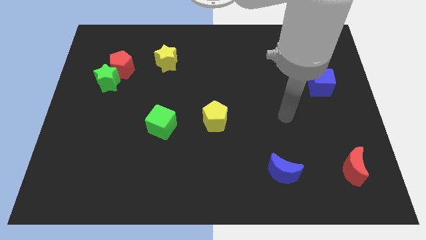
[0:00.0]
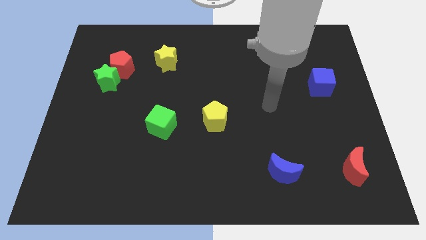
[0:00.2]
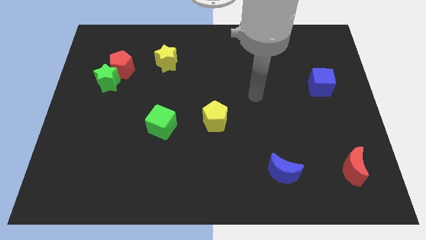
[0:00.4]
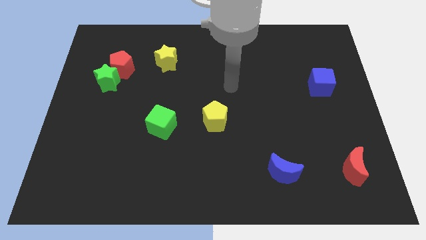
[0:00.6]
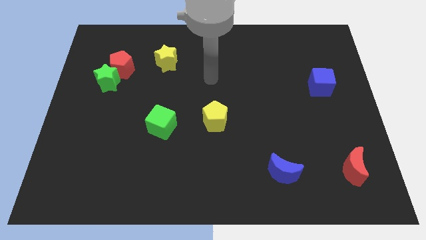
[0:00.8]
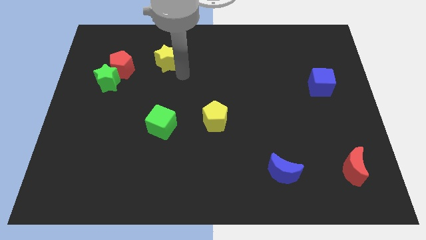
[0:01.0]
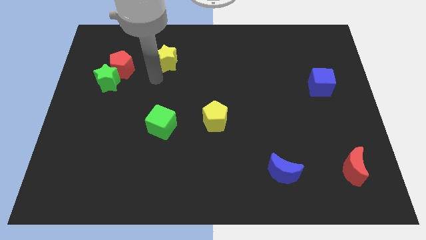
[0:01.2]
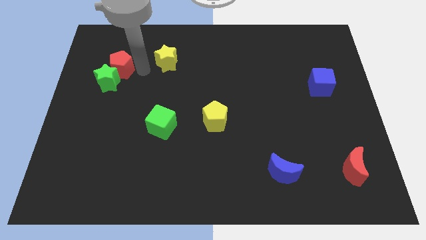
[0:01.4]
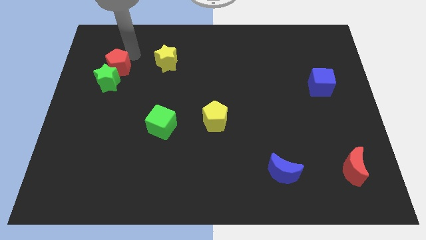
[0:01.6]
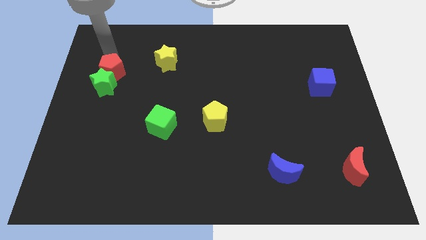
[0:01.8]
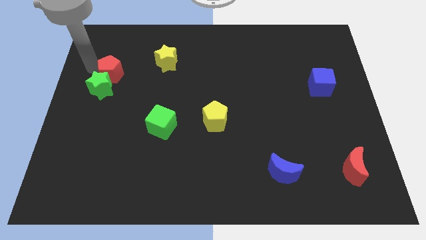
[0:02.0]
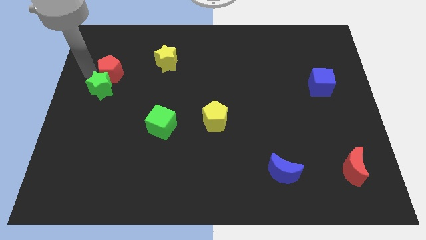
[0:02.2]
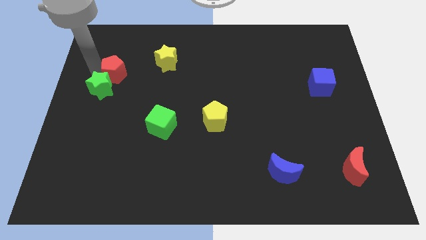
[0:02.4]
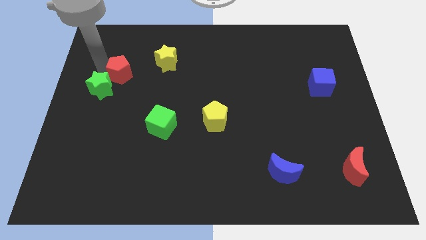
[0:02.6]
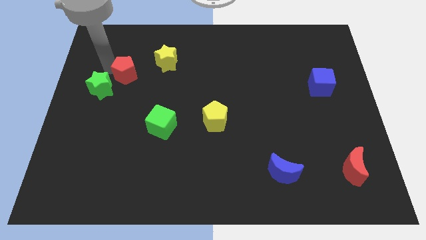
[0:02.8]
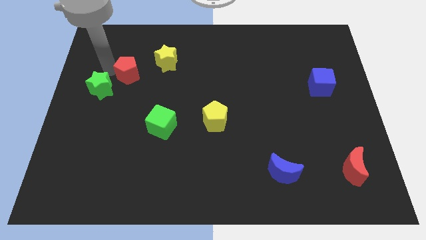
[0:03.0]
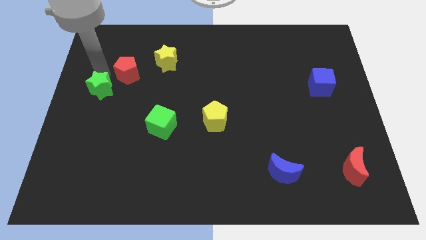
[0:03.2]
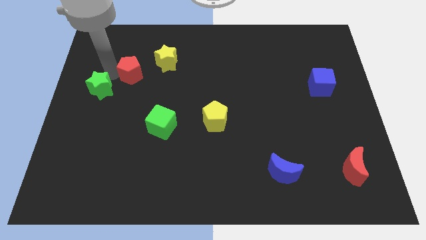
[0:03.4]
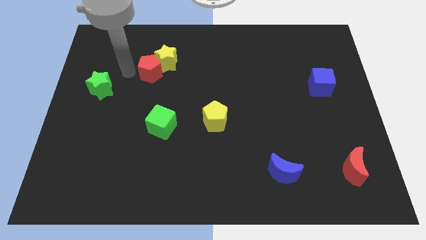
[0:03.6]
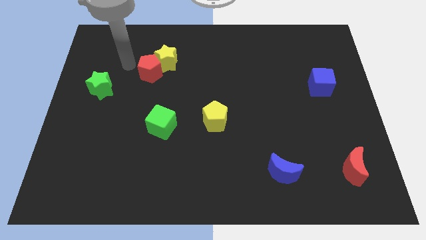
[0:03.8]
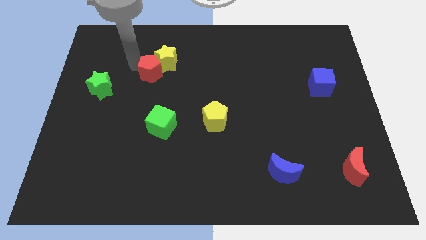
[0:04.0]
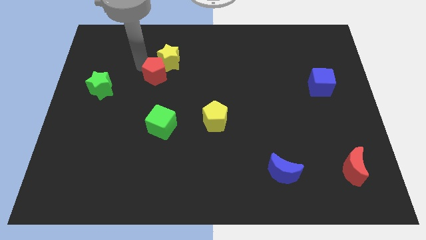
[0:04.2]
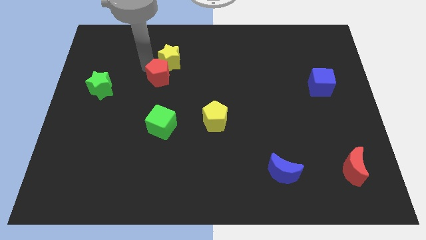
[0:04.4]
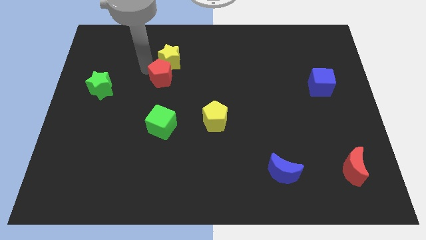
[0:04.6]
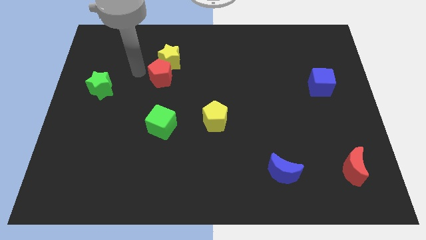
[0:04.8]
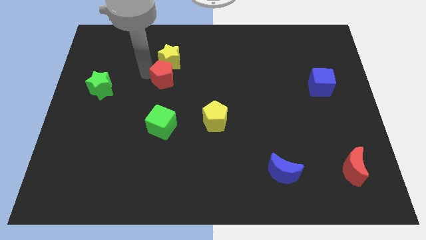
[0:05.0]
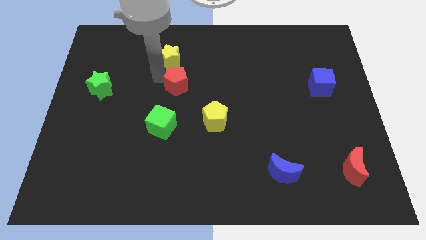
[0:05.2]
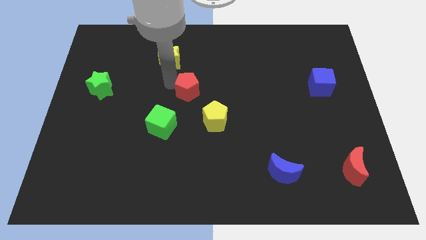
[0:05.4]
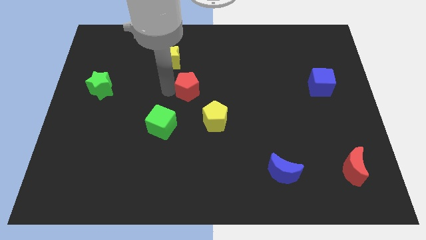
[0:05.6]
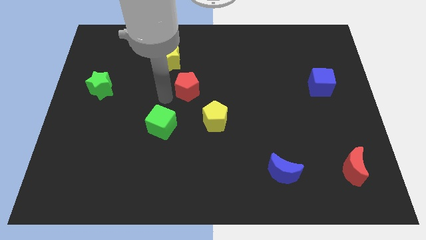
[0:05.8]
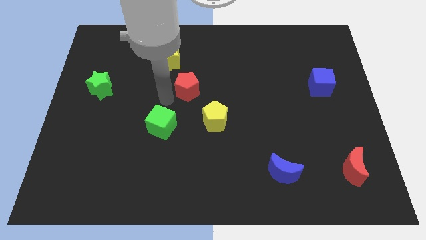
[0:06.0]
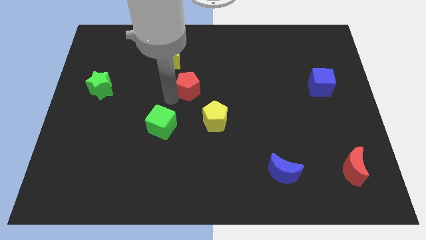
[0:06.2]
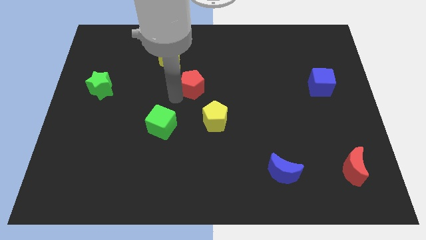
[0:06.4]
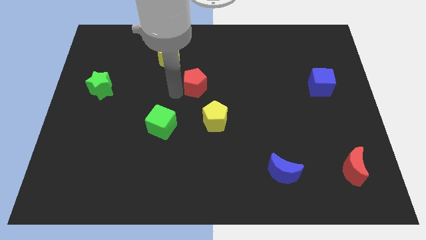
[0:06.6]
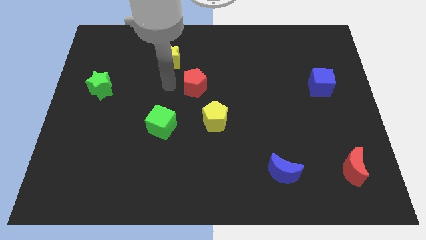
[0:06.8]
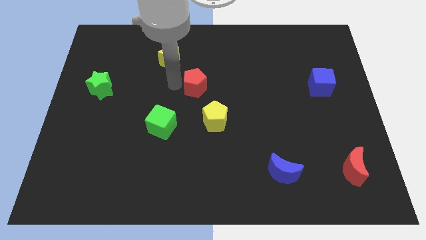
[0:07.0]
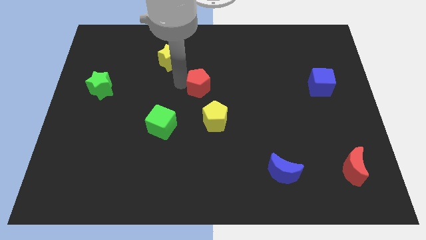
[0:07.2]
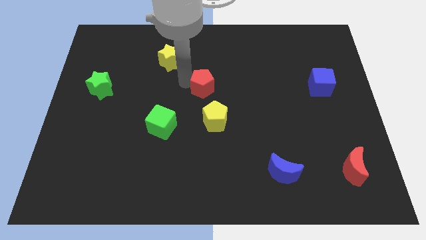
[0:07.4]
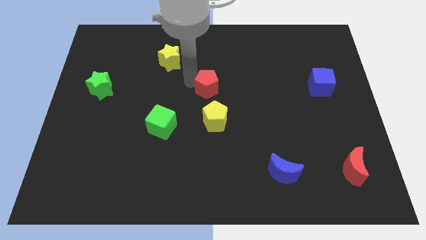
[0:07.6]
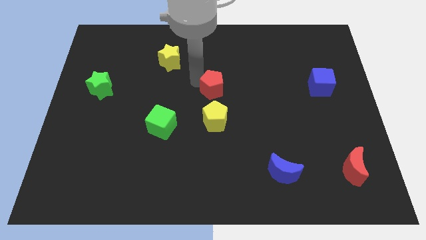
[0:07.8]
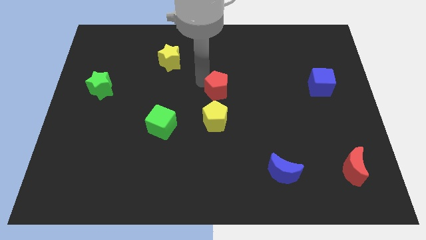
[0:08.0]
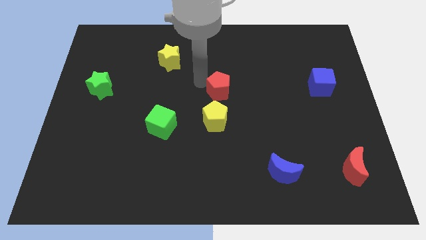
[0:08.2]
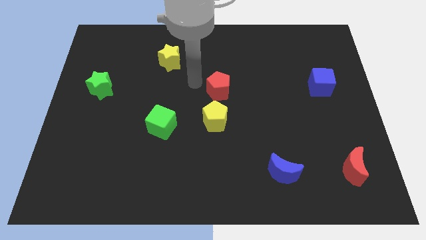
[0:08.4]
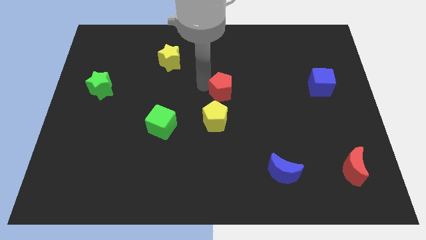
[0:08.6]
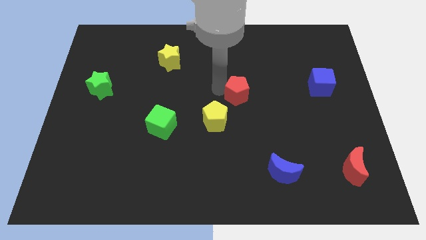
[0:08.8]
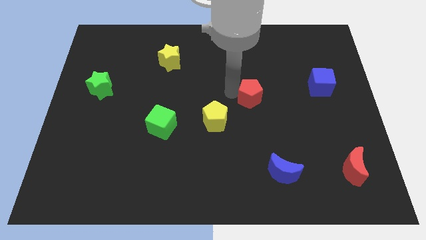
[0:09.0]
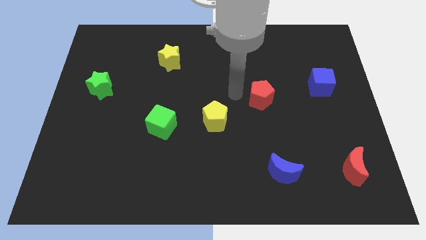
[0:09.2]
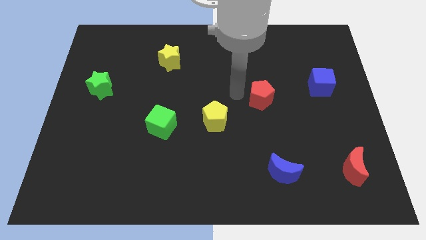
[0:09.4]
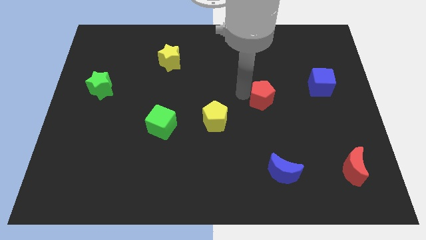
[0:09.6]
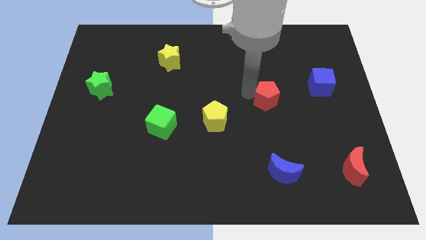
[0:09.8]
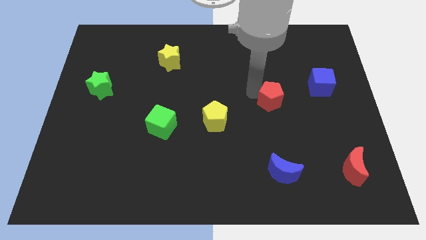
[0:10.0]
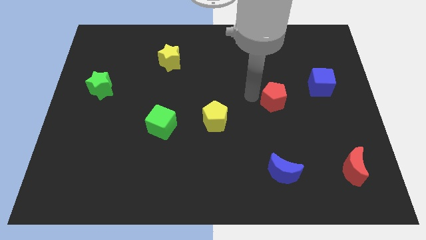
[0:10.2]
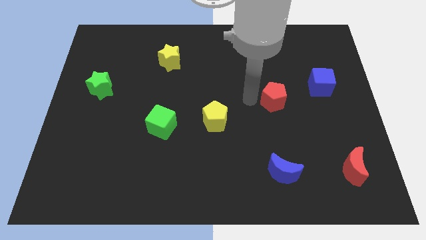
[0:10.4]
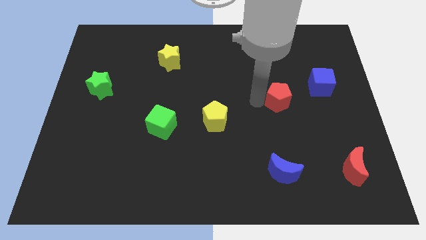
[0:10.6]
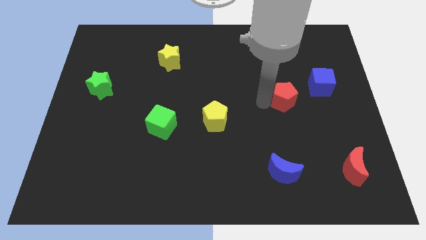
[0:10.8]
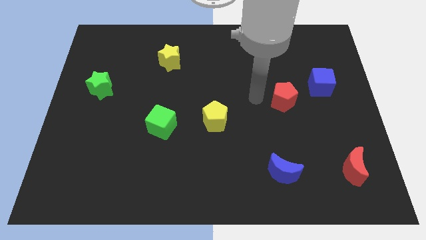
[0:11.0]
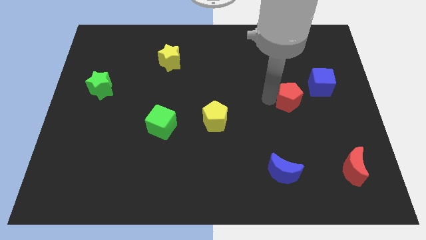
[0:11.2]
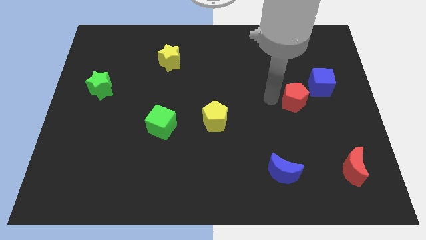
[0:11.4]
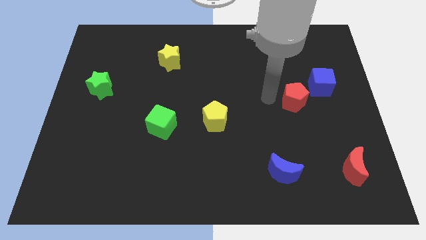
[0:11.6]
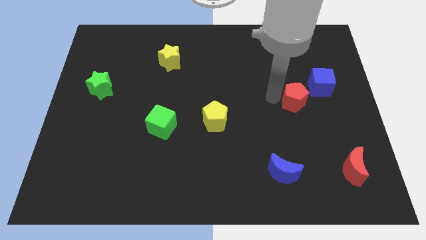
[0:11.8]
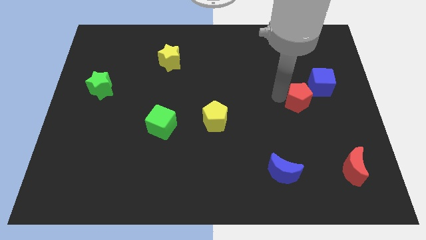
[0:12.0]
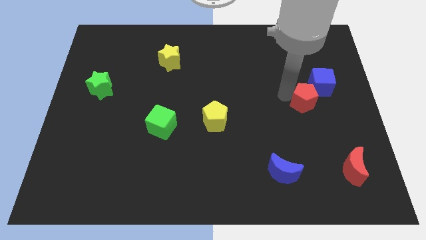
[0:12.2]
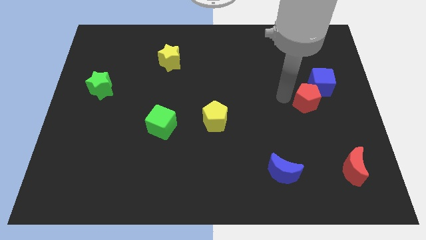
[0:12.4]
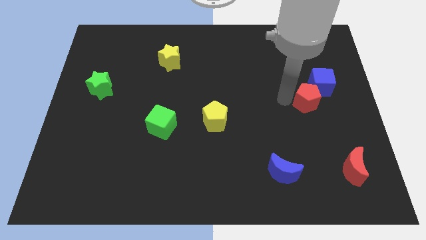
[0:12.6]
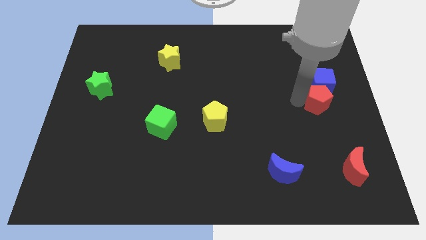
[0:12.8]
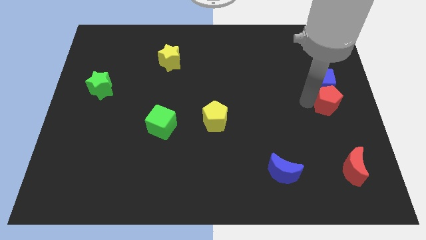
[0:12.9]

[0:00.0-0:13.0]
slide the red pentagon to the center right

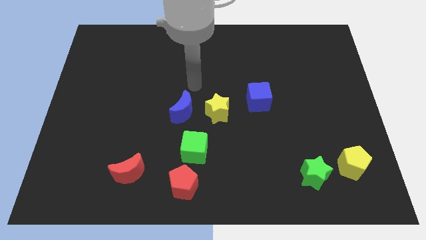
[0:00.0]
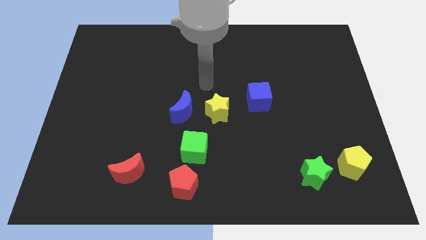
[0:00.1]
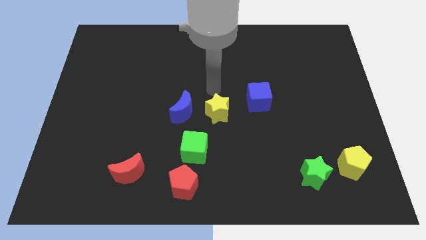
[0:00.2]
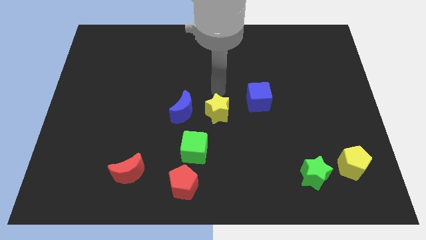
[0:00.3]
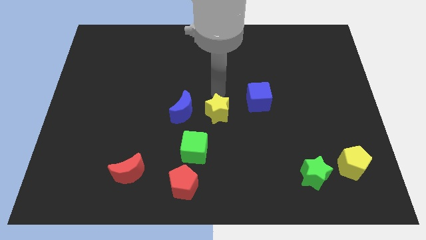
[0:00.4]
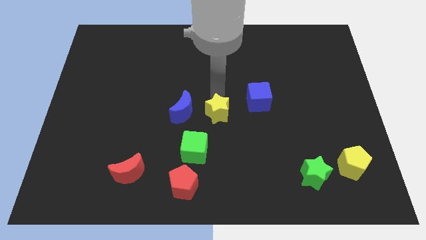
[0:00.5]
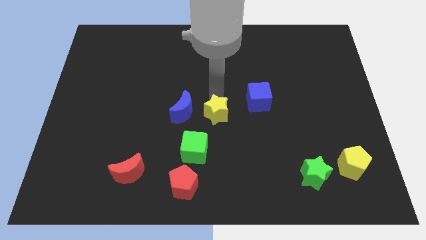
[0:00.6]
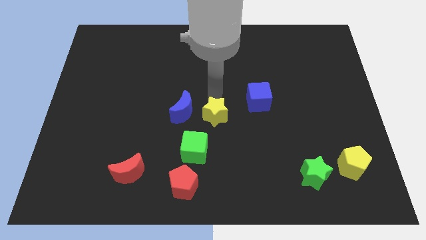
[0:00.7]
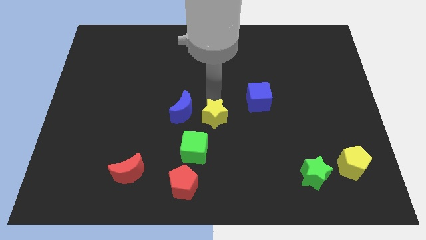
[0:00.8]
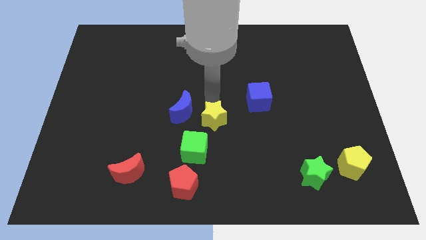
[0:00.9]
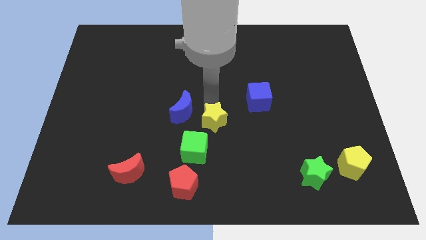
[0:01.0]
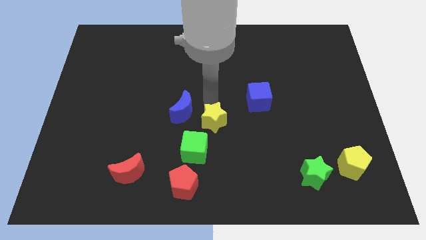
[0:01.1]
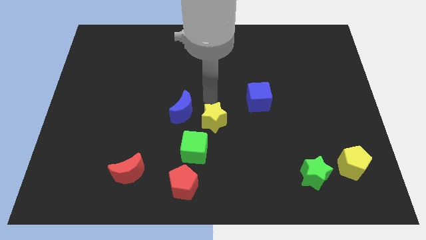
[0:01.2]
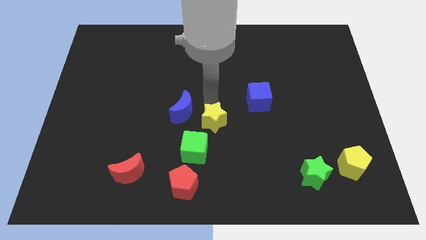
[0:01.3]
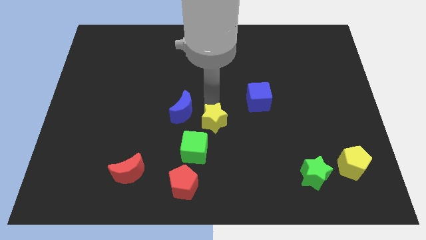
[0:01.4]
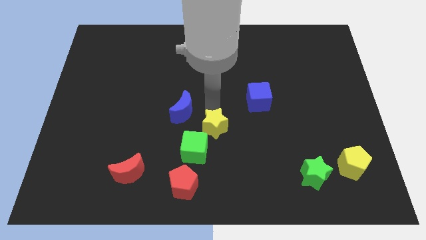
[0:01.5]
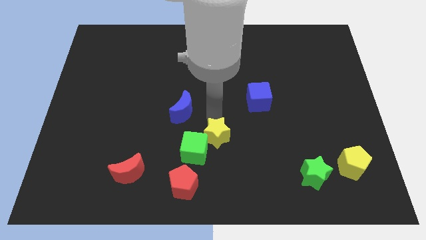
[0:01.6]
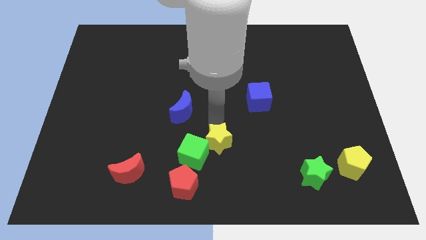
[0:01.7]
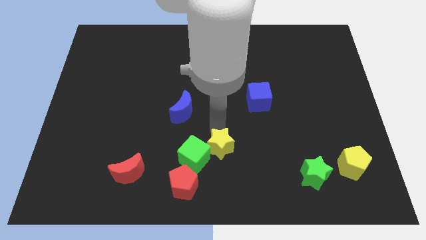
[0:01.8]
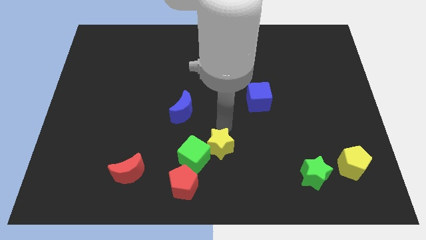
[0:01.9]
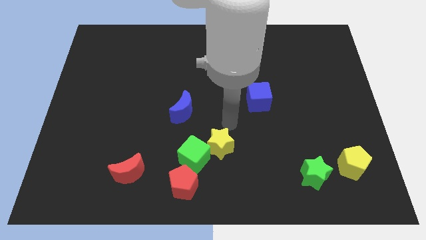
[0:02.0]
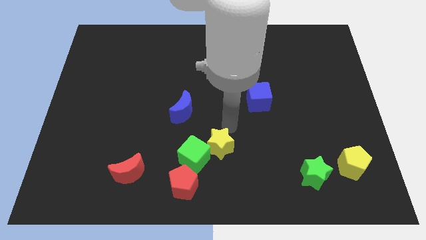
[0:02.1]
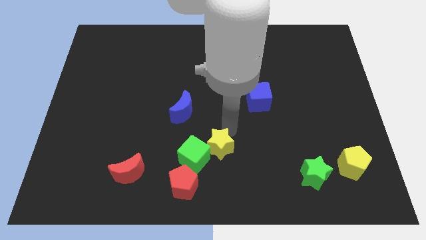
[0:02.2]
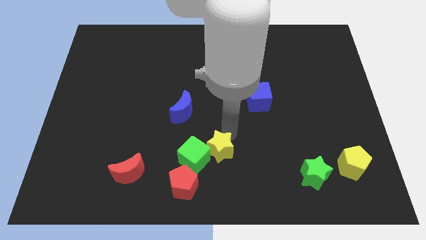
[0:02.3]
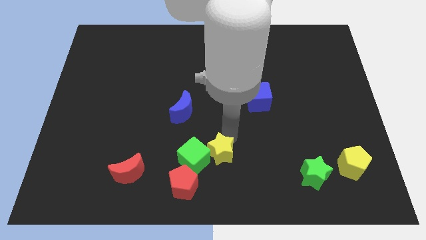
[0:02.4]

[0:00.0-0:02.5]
put the yellow star to the bottom side
